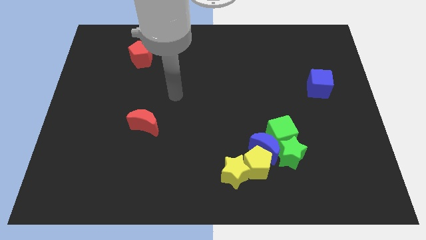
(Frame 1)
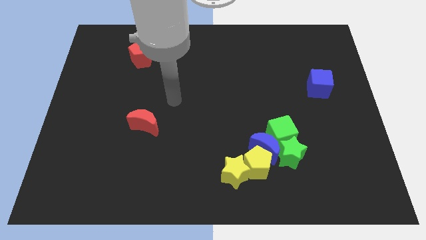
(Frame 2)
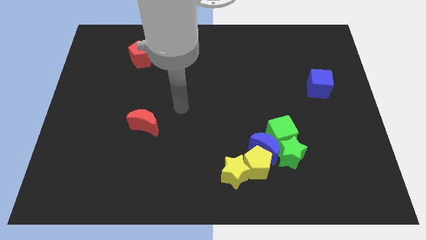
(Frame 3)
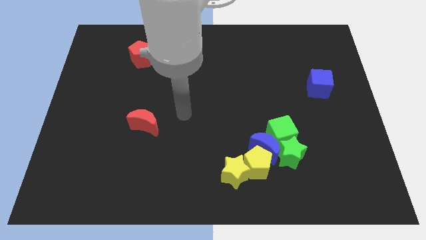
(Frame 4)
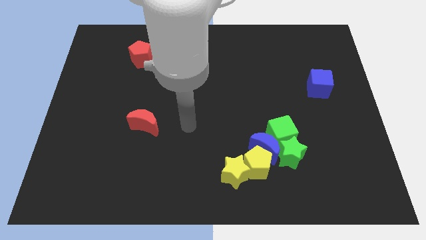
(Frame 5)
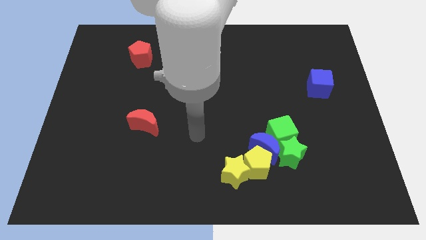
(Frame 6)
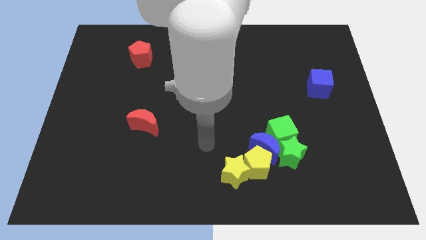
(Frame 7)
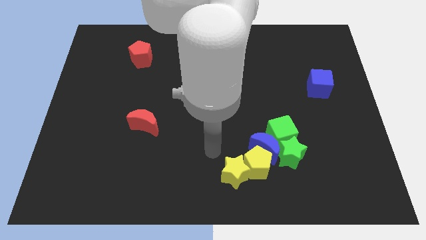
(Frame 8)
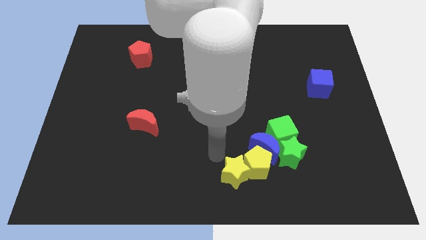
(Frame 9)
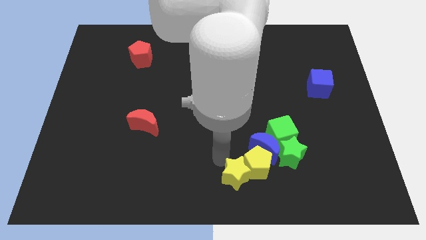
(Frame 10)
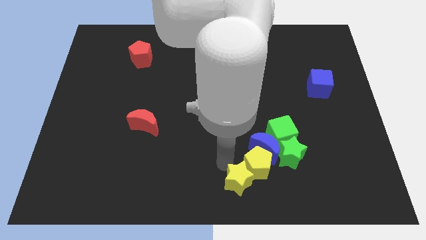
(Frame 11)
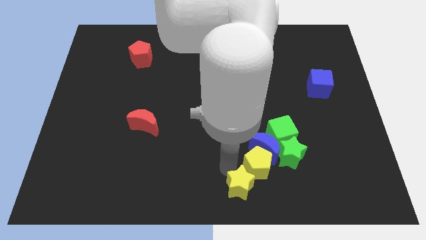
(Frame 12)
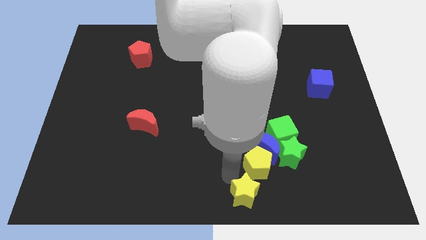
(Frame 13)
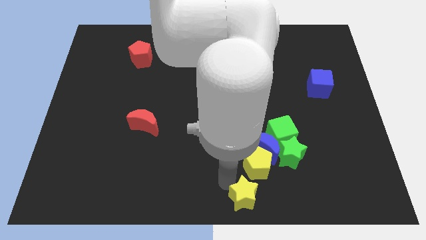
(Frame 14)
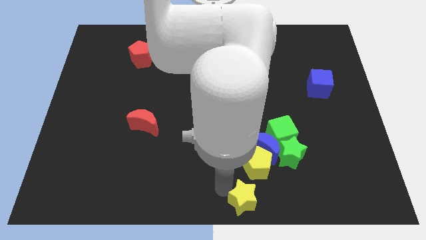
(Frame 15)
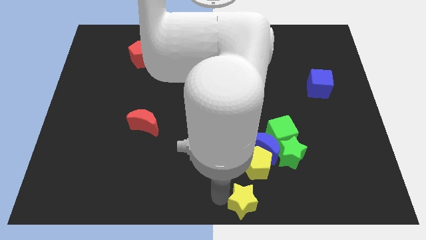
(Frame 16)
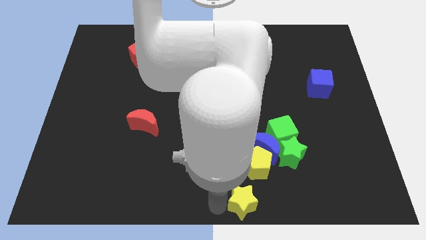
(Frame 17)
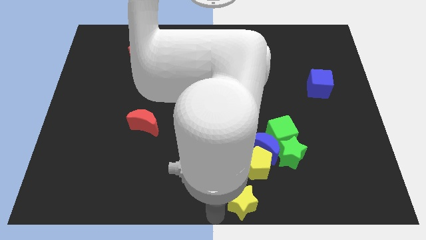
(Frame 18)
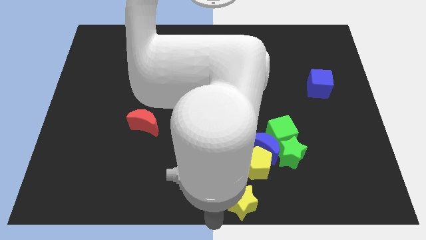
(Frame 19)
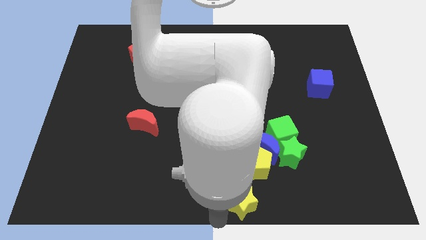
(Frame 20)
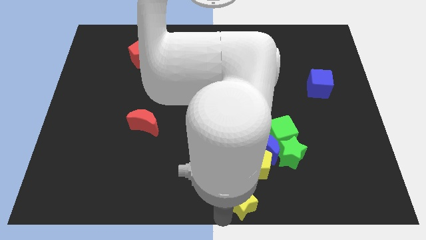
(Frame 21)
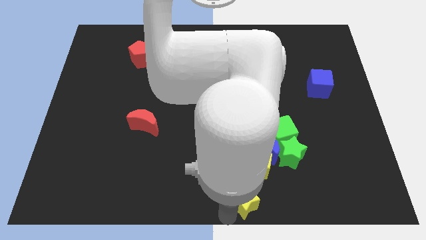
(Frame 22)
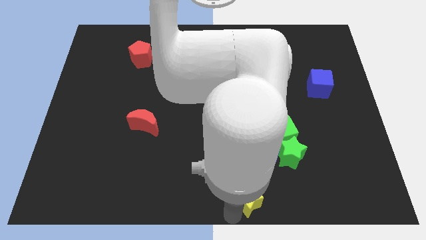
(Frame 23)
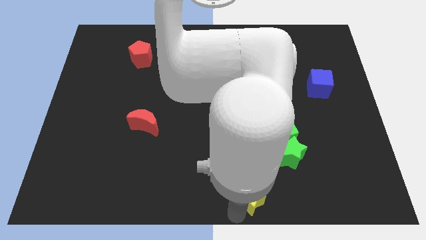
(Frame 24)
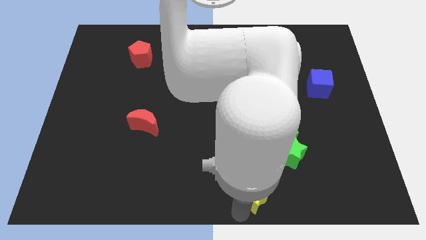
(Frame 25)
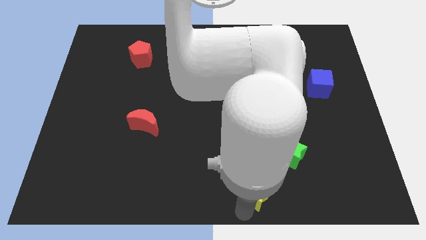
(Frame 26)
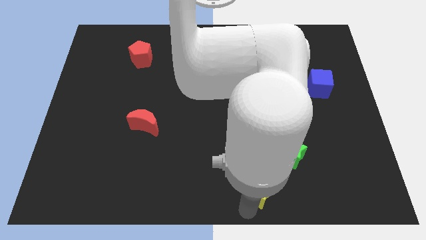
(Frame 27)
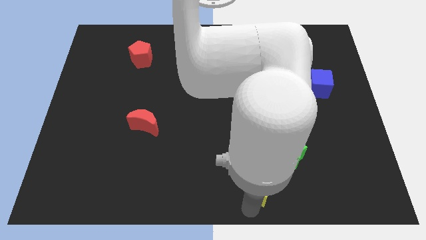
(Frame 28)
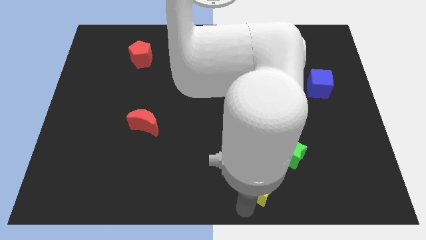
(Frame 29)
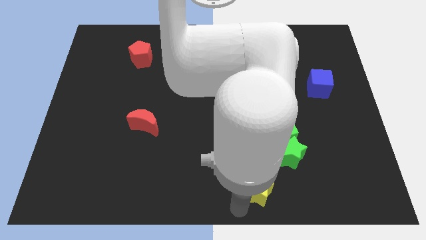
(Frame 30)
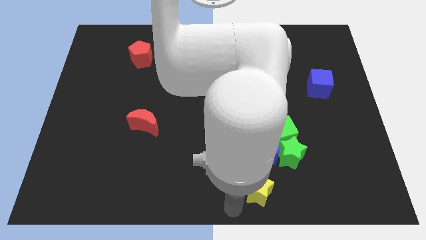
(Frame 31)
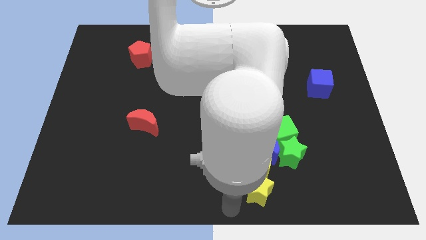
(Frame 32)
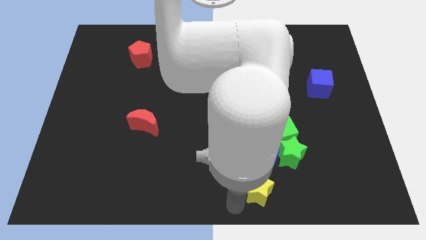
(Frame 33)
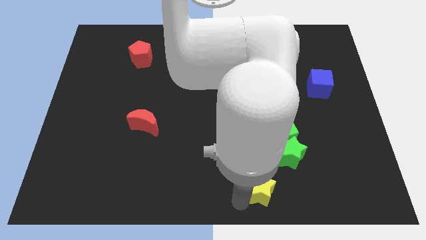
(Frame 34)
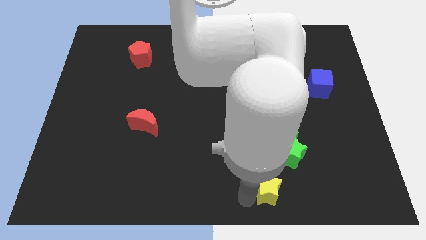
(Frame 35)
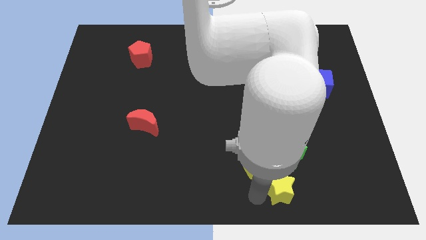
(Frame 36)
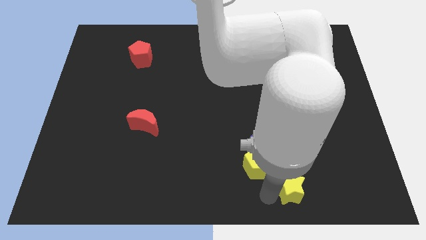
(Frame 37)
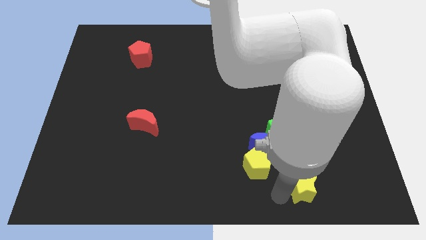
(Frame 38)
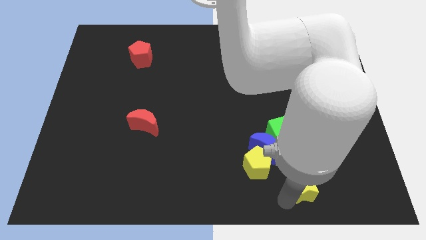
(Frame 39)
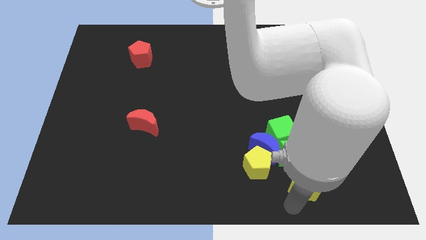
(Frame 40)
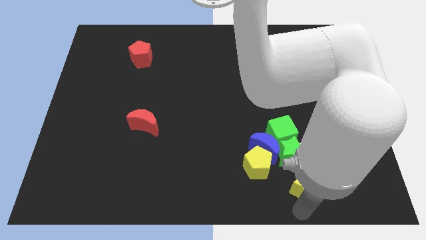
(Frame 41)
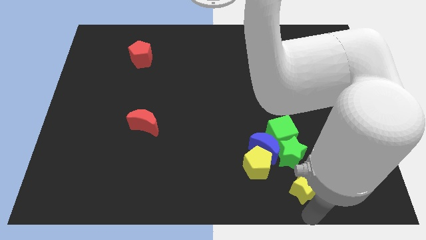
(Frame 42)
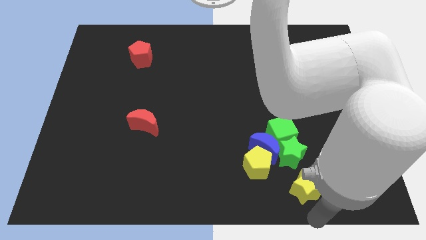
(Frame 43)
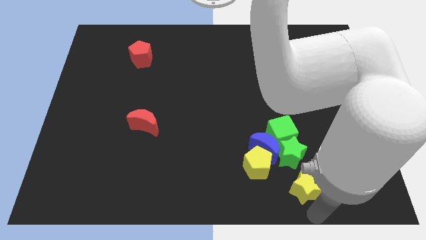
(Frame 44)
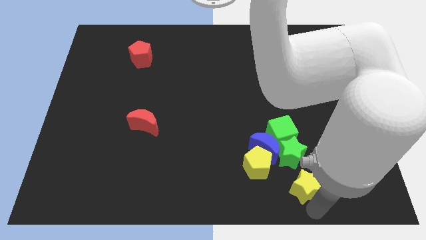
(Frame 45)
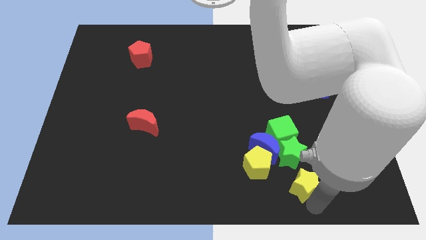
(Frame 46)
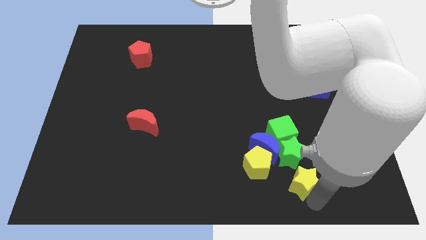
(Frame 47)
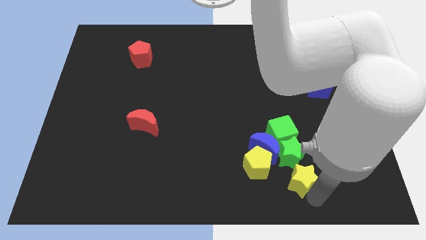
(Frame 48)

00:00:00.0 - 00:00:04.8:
slide the yellow star towards the green star

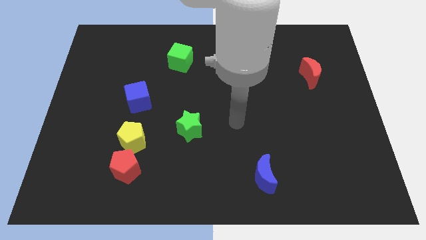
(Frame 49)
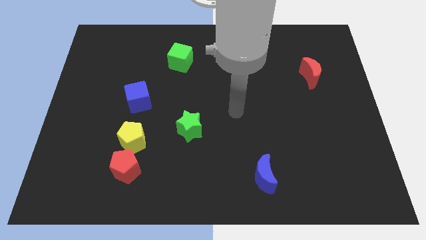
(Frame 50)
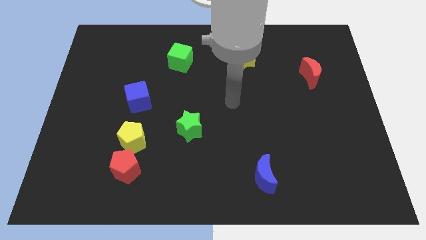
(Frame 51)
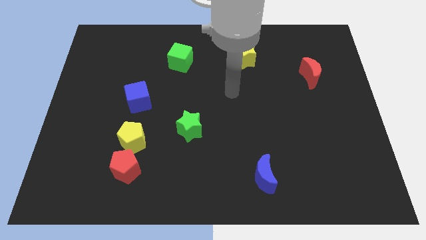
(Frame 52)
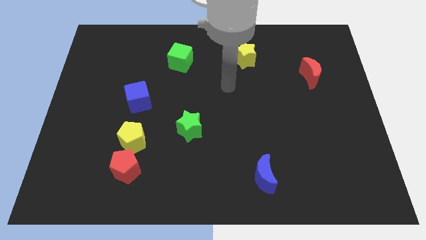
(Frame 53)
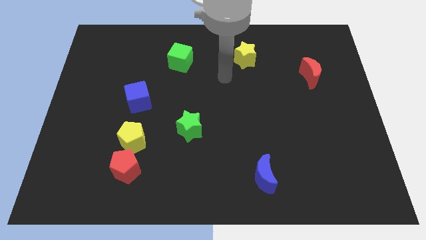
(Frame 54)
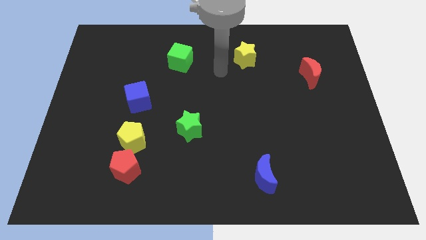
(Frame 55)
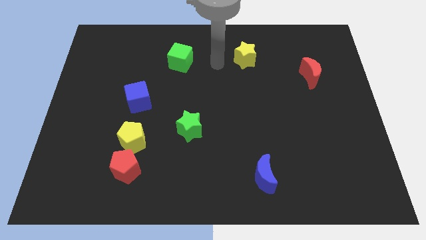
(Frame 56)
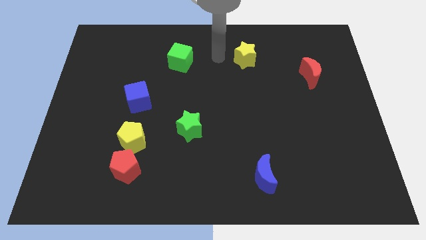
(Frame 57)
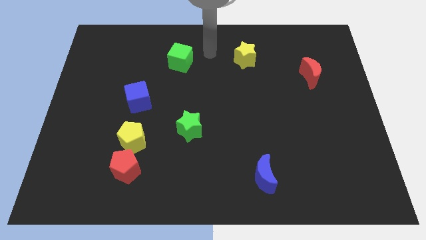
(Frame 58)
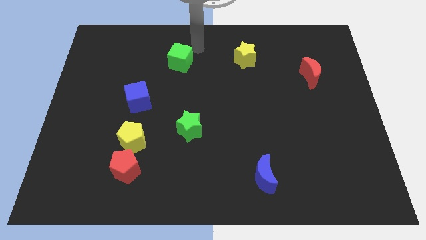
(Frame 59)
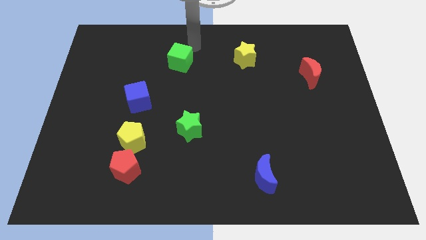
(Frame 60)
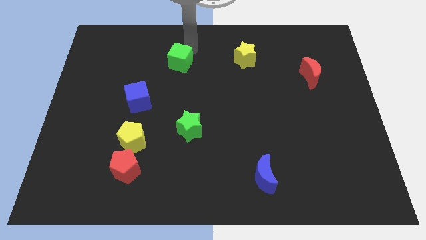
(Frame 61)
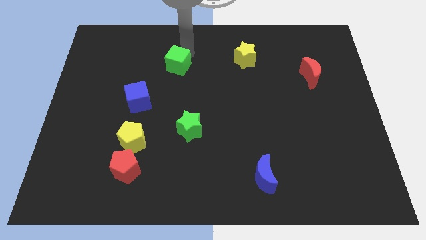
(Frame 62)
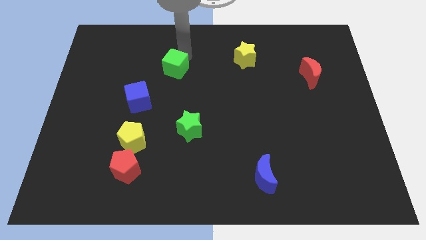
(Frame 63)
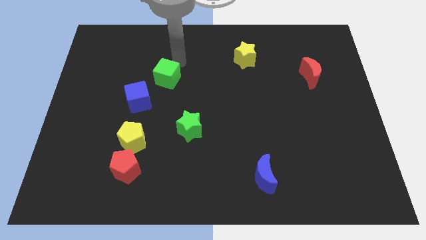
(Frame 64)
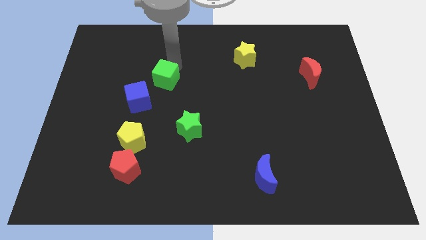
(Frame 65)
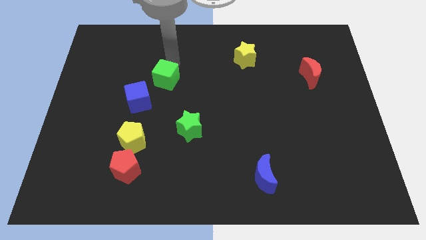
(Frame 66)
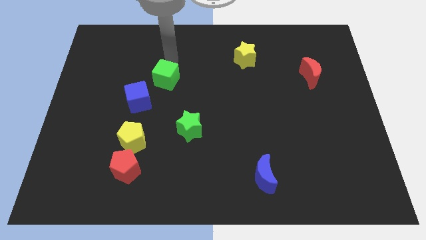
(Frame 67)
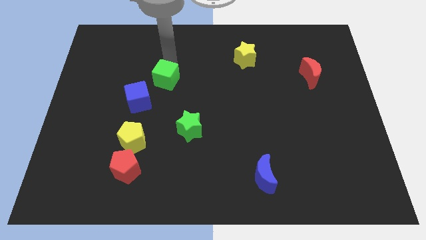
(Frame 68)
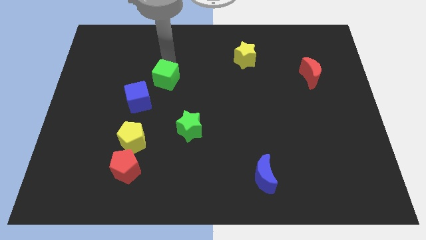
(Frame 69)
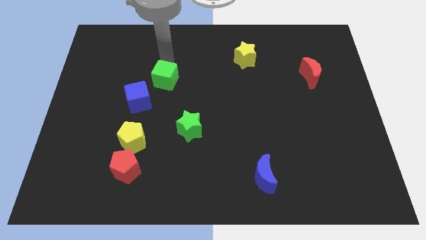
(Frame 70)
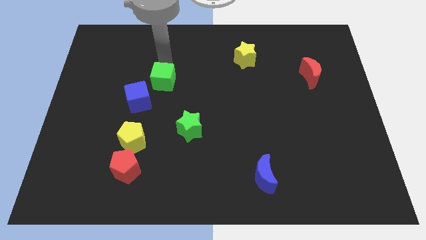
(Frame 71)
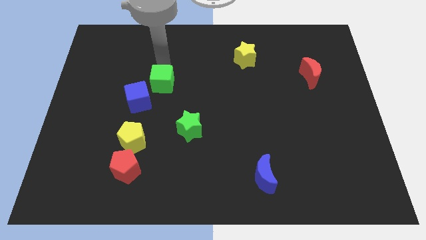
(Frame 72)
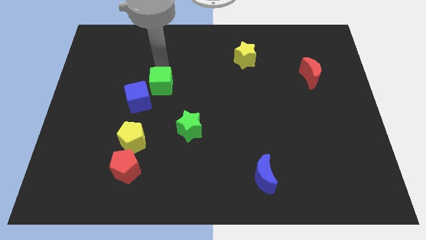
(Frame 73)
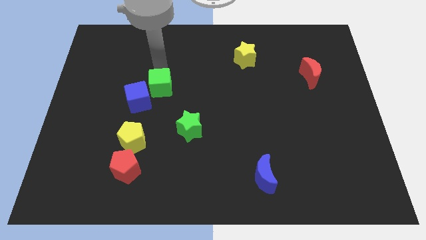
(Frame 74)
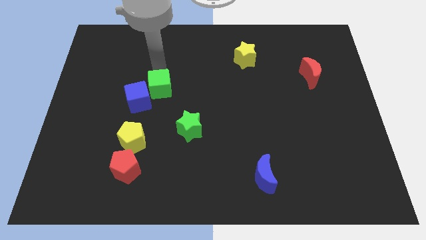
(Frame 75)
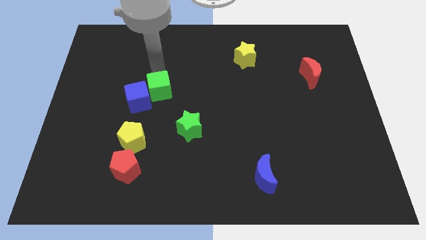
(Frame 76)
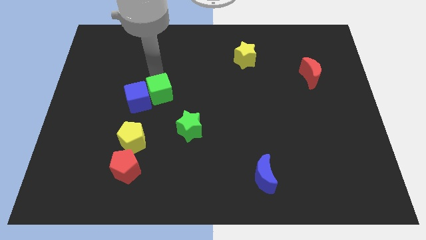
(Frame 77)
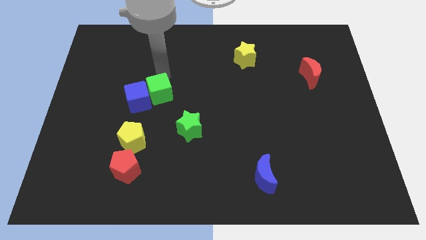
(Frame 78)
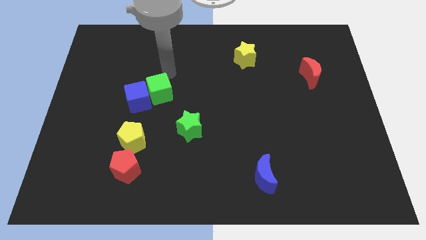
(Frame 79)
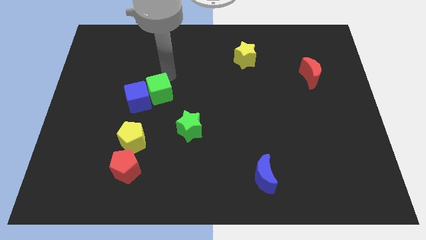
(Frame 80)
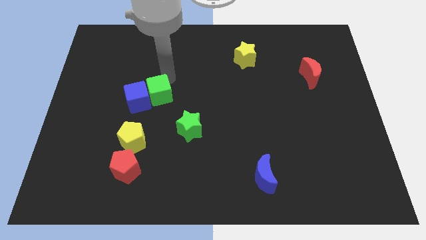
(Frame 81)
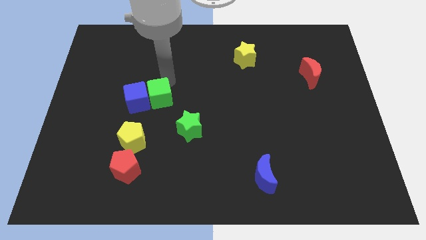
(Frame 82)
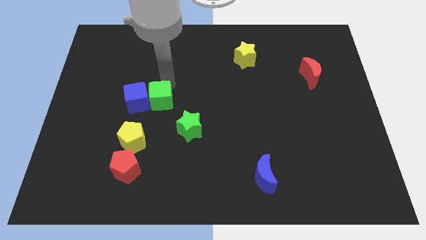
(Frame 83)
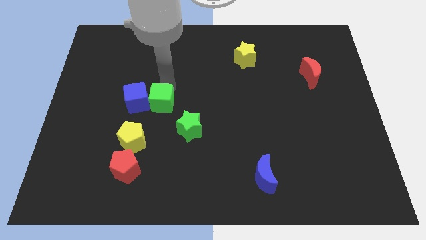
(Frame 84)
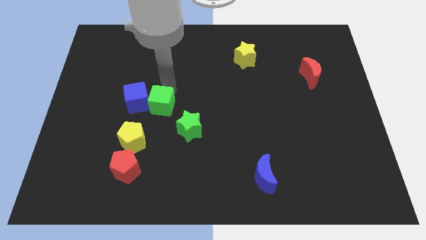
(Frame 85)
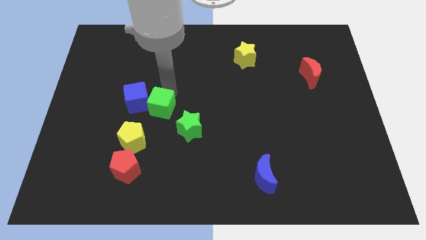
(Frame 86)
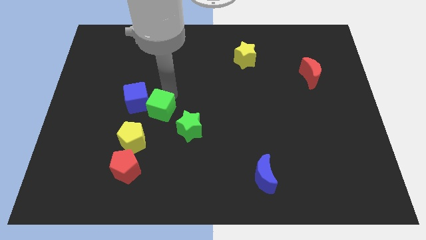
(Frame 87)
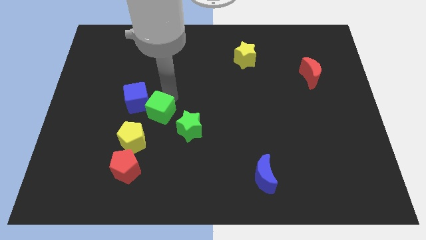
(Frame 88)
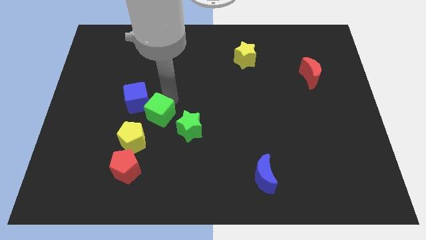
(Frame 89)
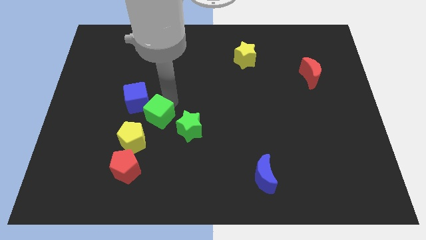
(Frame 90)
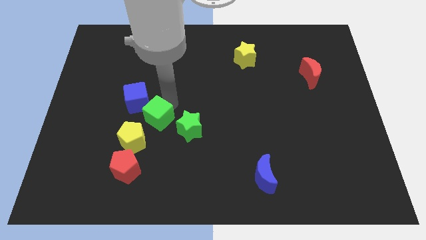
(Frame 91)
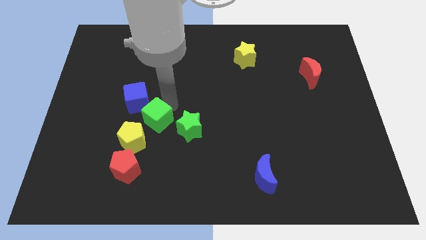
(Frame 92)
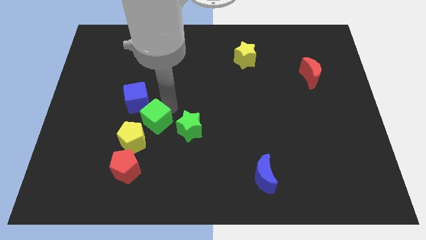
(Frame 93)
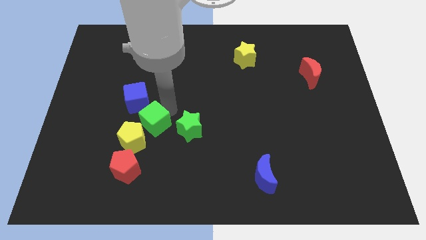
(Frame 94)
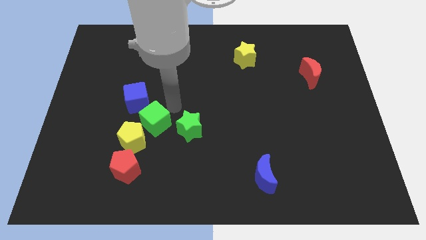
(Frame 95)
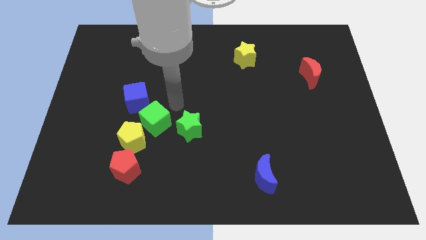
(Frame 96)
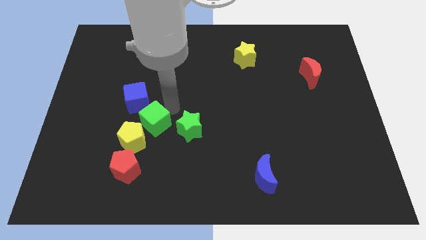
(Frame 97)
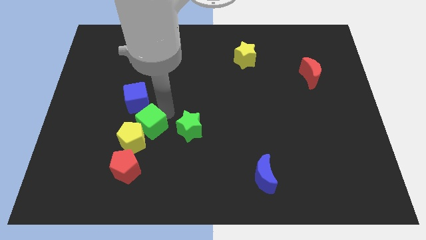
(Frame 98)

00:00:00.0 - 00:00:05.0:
put the green cube close to the yellow pentagon
